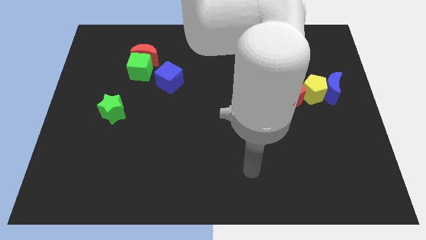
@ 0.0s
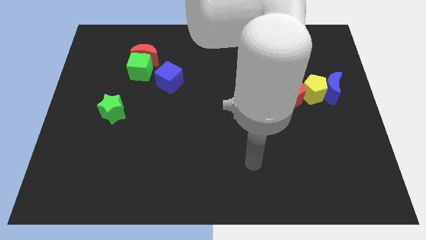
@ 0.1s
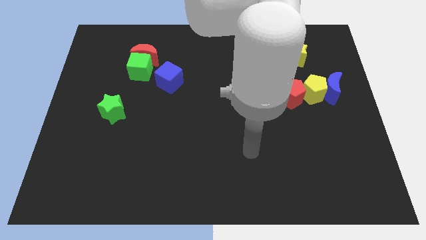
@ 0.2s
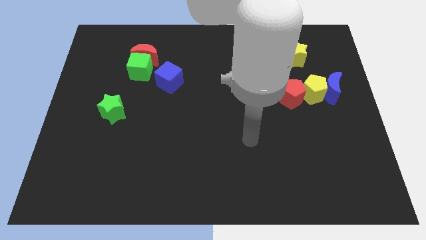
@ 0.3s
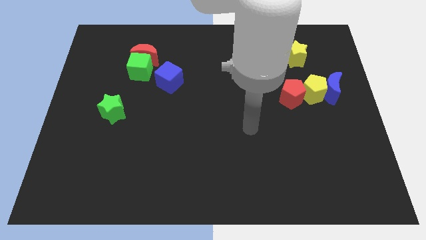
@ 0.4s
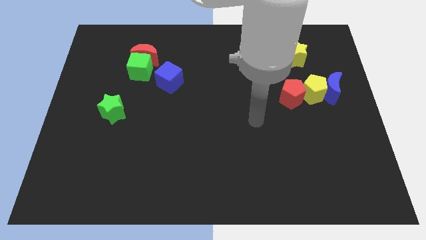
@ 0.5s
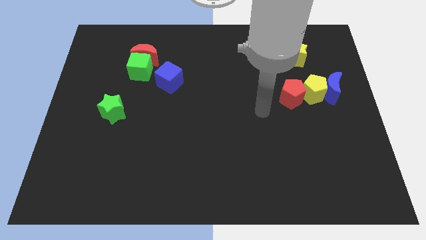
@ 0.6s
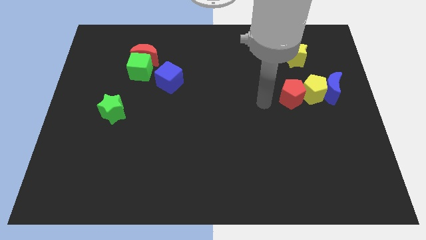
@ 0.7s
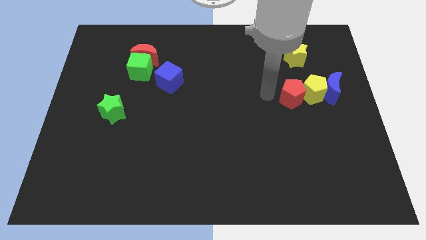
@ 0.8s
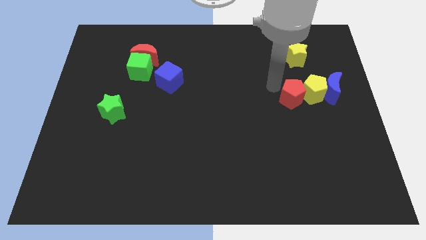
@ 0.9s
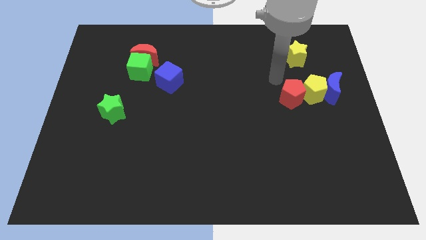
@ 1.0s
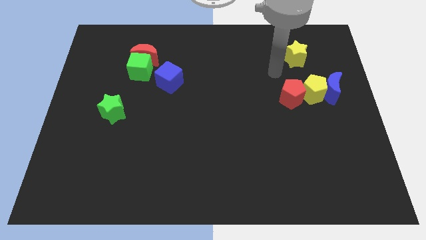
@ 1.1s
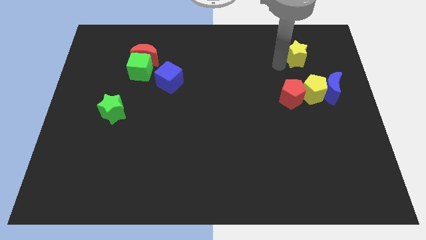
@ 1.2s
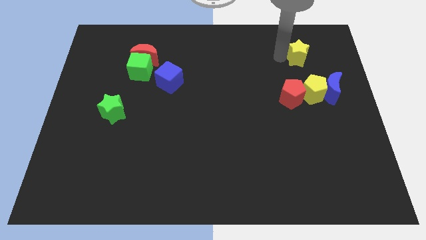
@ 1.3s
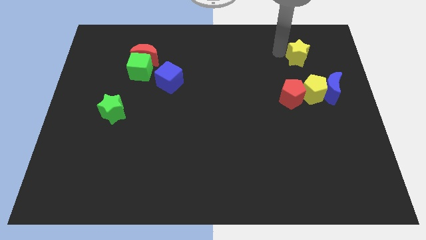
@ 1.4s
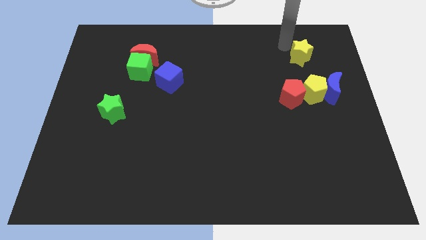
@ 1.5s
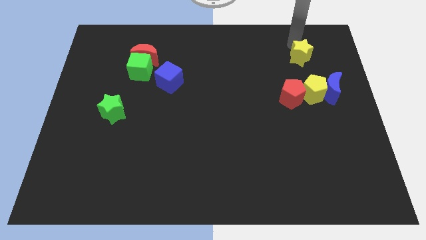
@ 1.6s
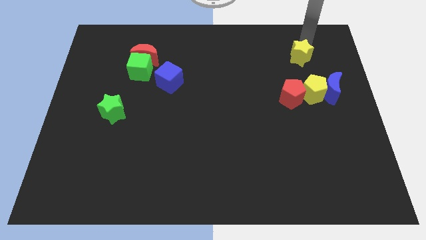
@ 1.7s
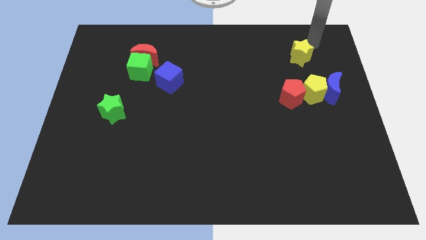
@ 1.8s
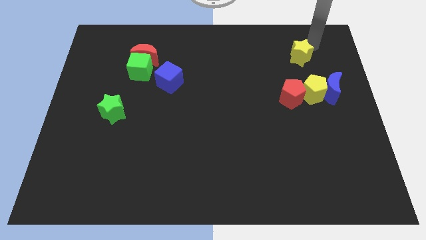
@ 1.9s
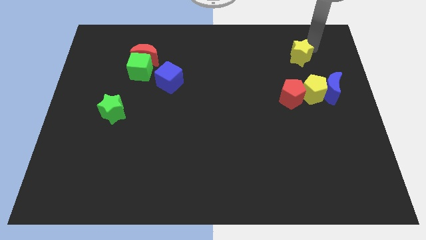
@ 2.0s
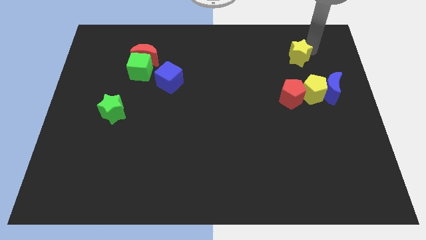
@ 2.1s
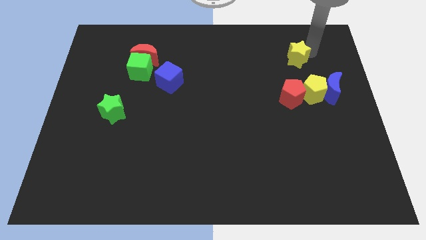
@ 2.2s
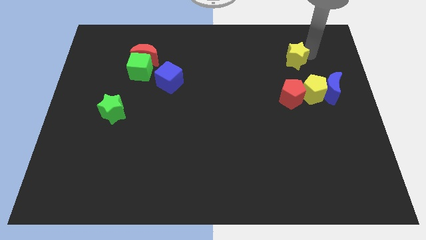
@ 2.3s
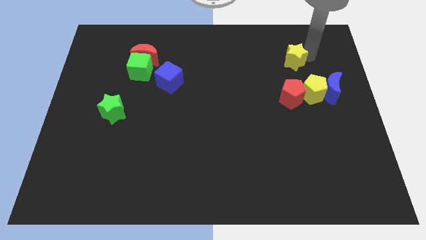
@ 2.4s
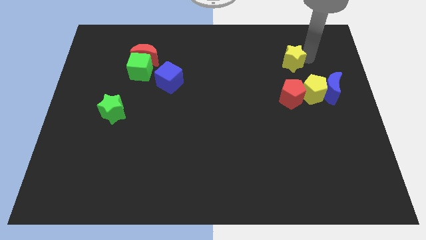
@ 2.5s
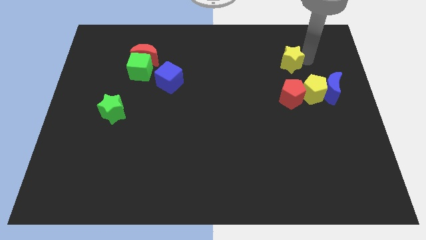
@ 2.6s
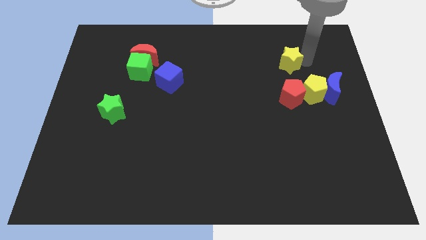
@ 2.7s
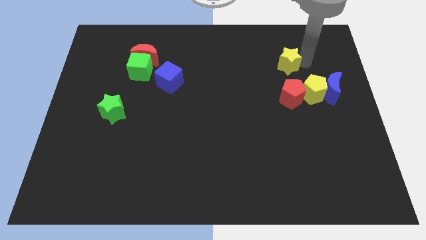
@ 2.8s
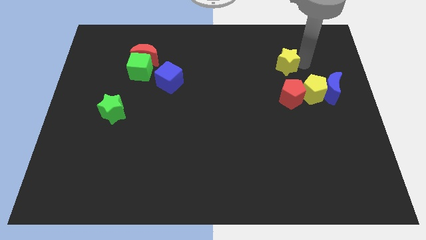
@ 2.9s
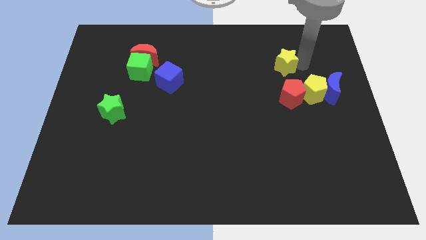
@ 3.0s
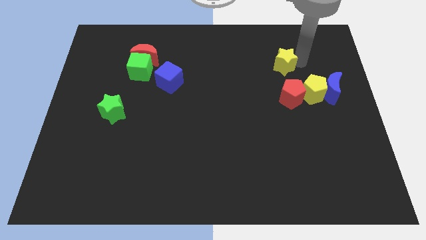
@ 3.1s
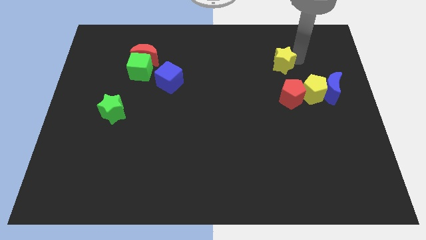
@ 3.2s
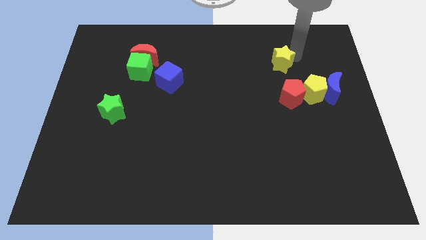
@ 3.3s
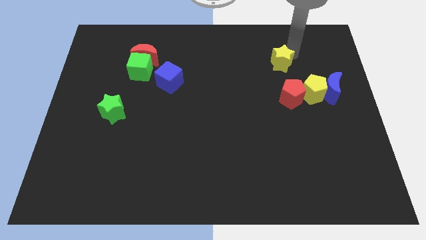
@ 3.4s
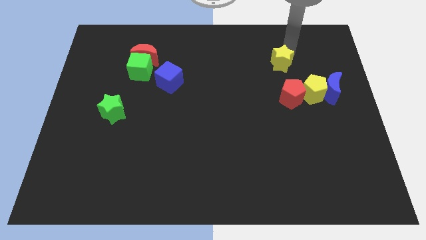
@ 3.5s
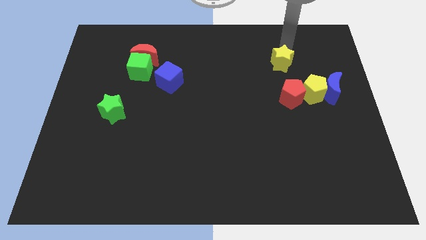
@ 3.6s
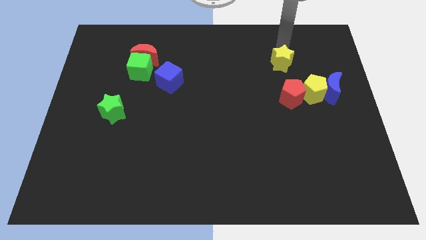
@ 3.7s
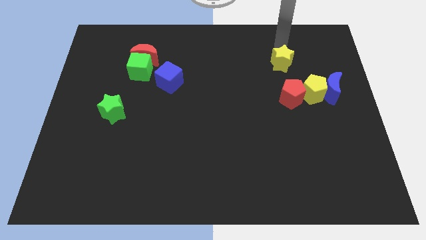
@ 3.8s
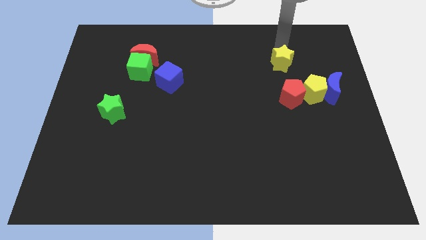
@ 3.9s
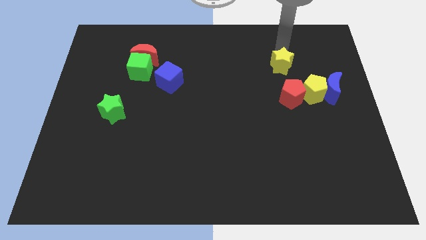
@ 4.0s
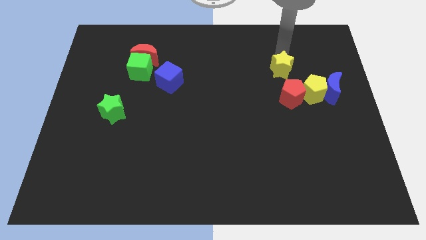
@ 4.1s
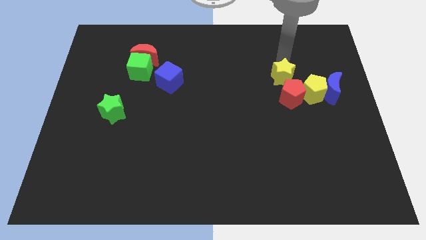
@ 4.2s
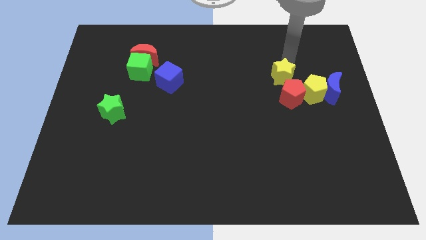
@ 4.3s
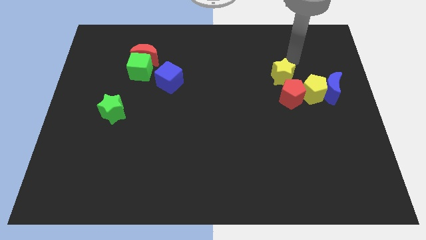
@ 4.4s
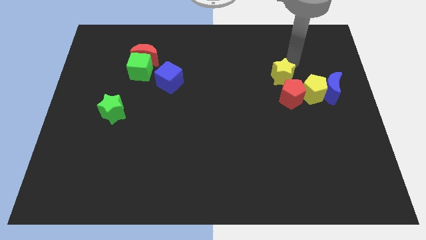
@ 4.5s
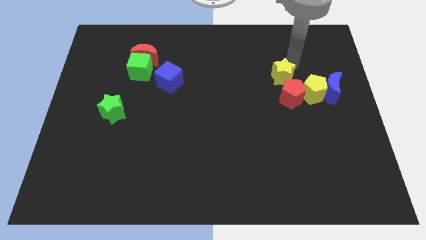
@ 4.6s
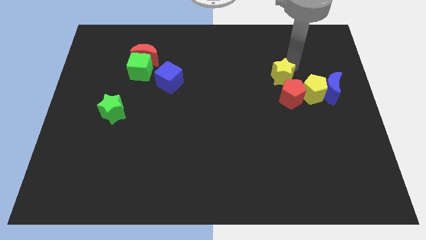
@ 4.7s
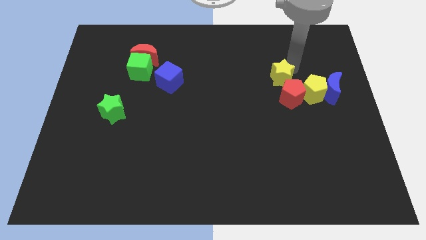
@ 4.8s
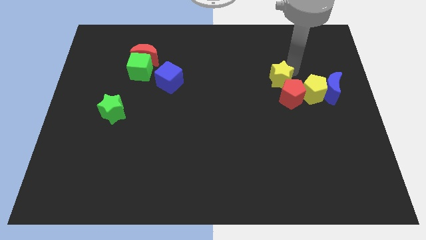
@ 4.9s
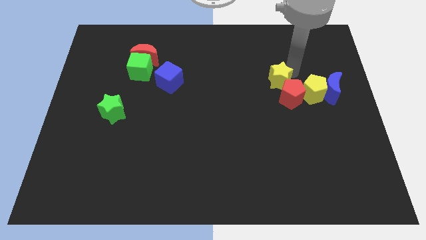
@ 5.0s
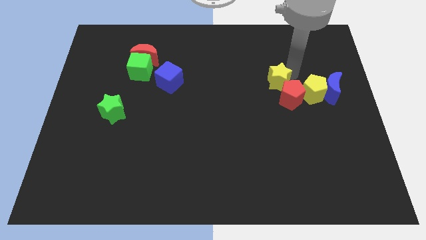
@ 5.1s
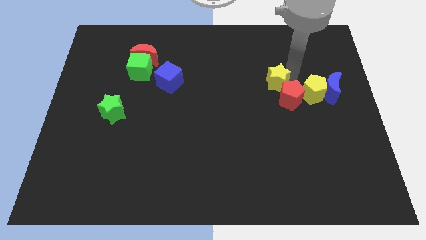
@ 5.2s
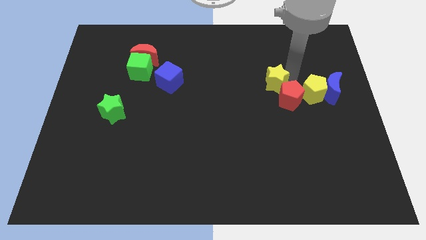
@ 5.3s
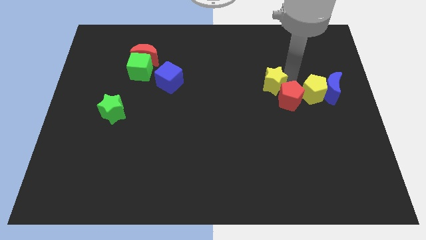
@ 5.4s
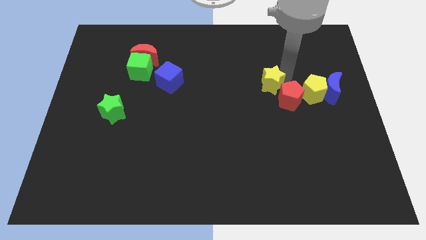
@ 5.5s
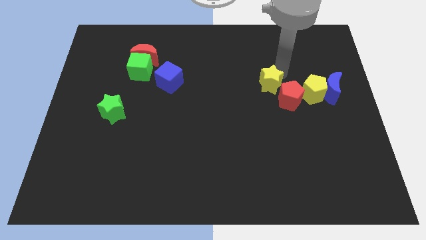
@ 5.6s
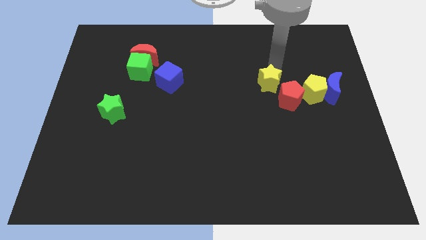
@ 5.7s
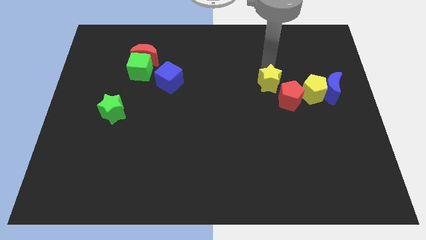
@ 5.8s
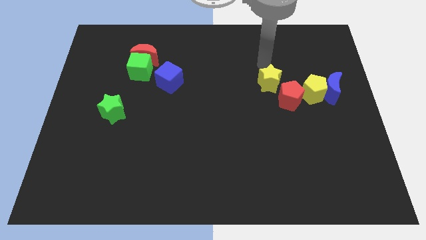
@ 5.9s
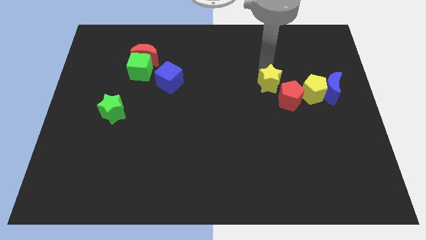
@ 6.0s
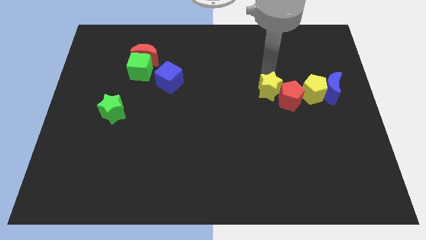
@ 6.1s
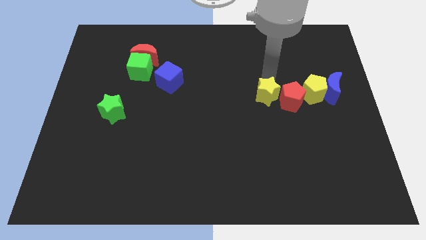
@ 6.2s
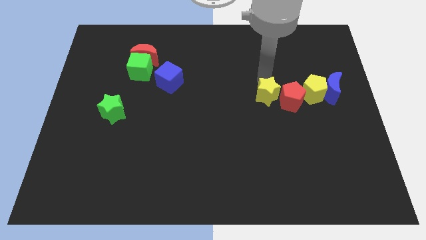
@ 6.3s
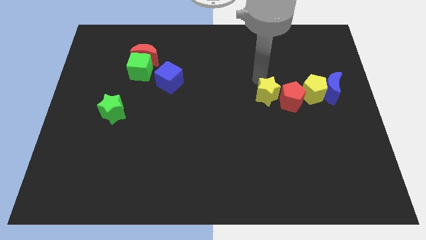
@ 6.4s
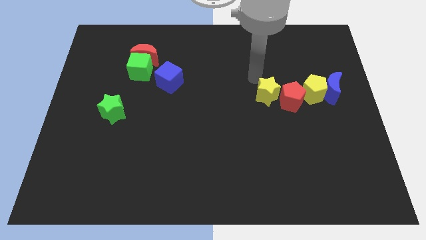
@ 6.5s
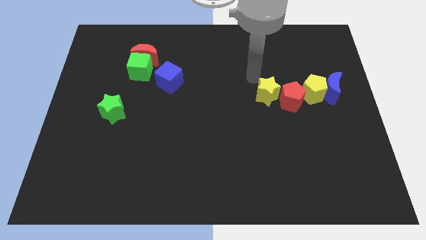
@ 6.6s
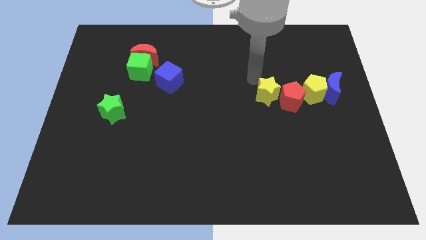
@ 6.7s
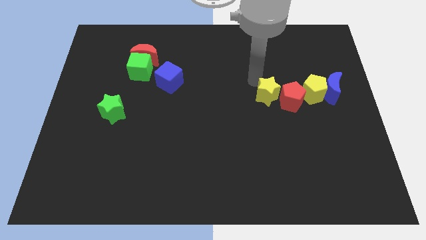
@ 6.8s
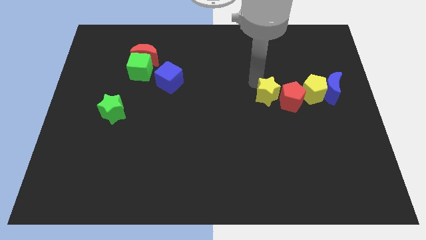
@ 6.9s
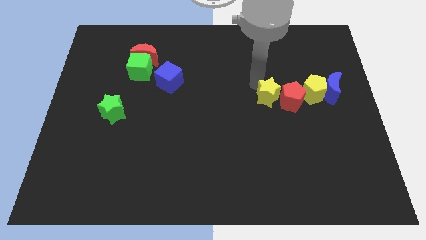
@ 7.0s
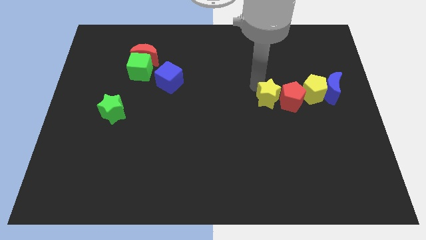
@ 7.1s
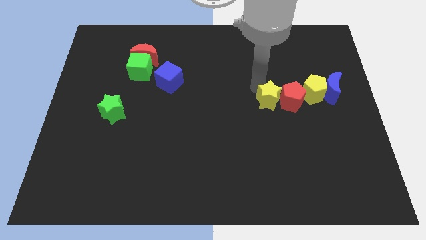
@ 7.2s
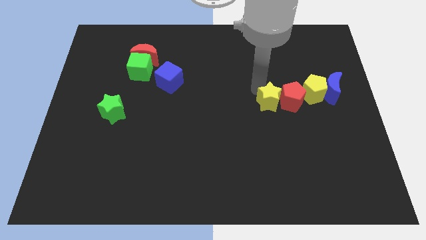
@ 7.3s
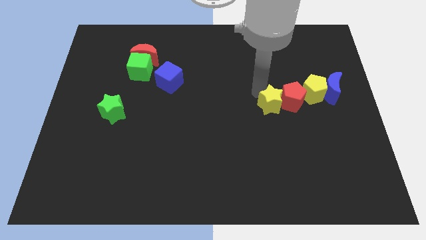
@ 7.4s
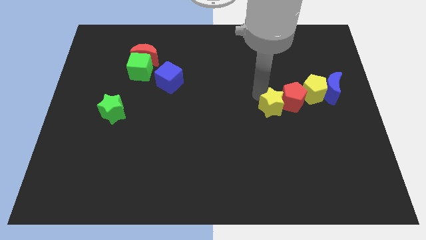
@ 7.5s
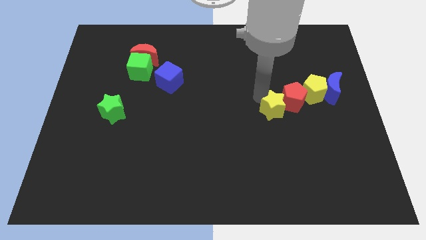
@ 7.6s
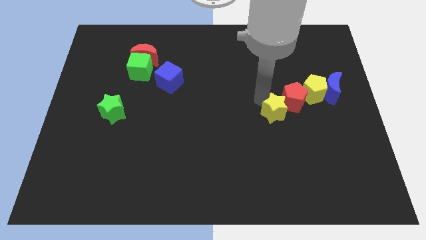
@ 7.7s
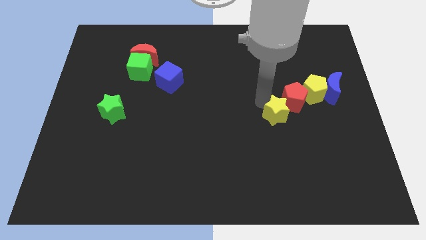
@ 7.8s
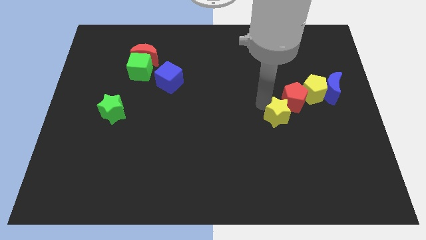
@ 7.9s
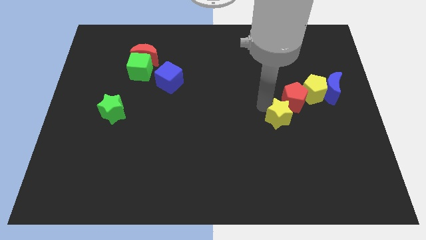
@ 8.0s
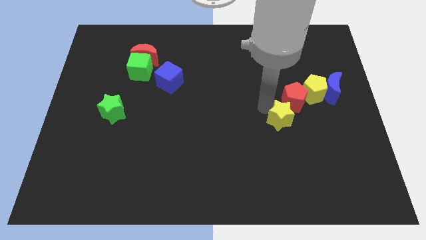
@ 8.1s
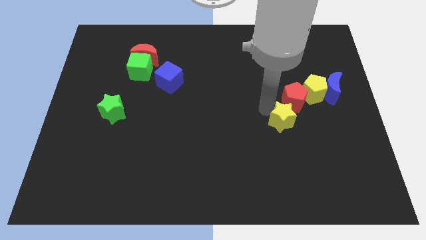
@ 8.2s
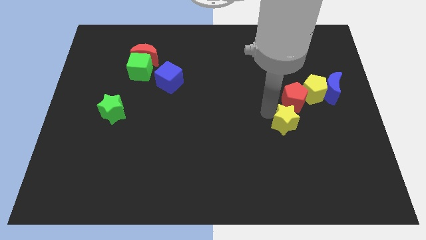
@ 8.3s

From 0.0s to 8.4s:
push the yellow star down
